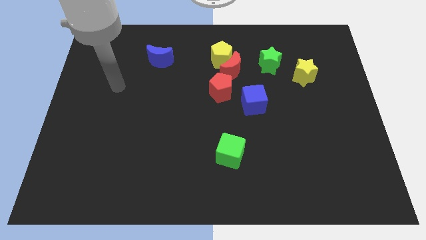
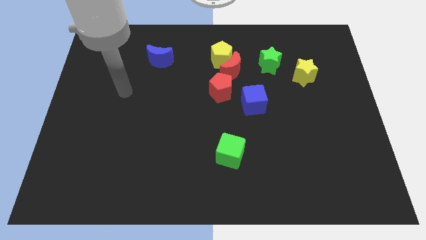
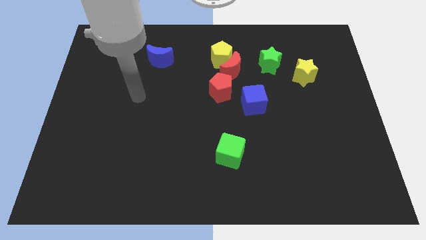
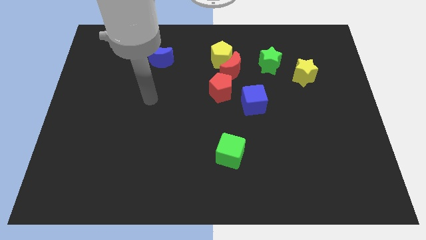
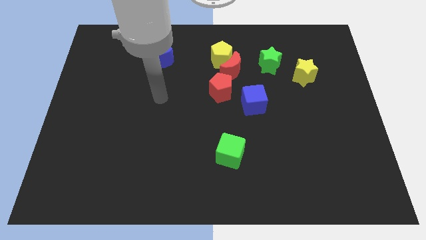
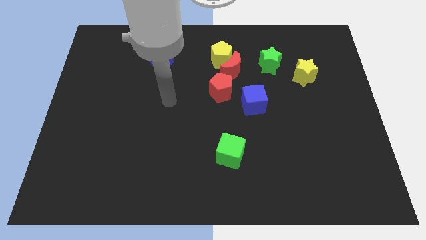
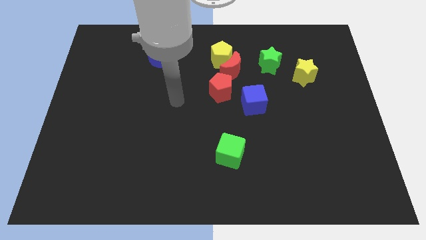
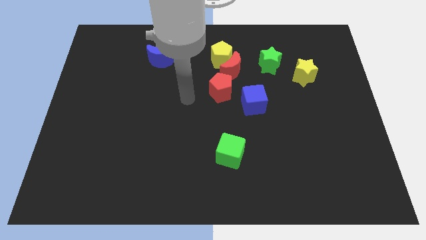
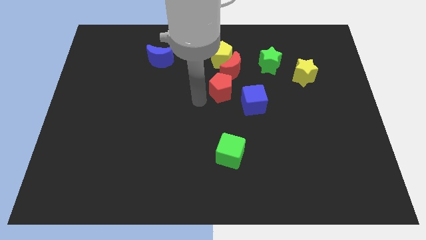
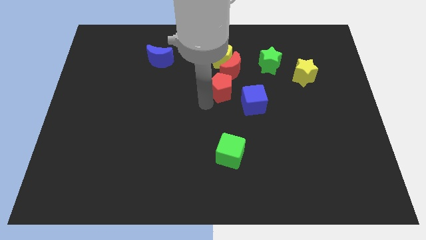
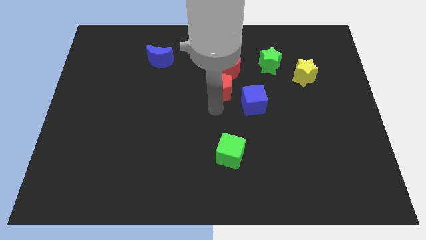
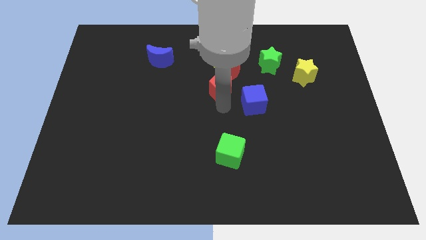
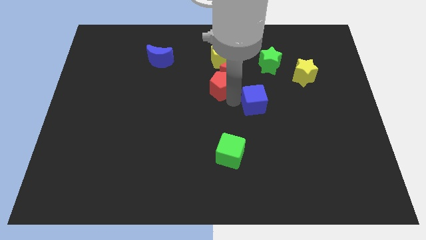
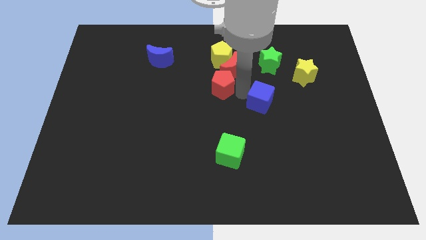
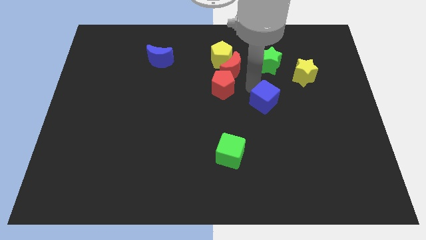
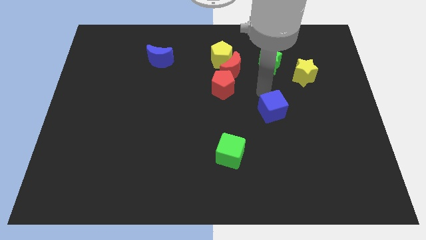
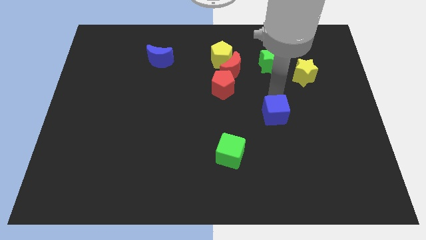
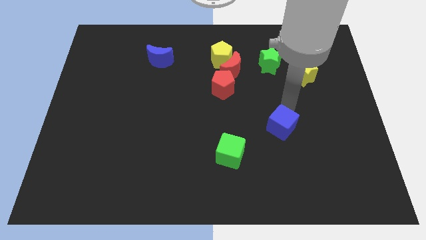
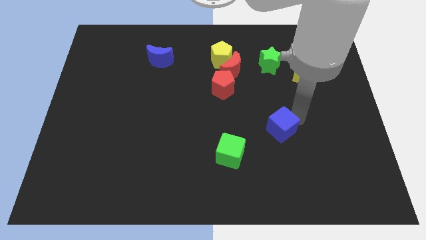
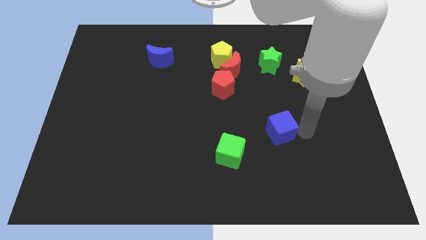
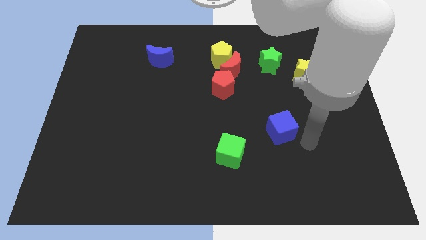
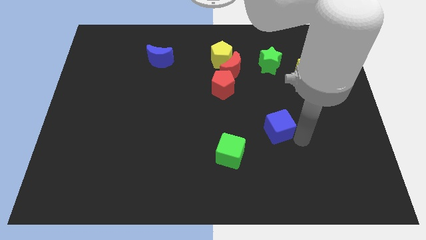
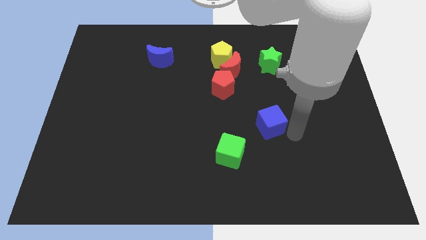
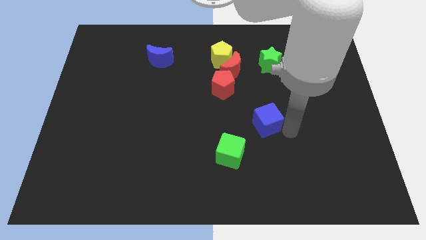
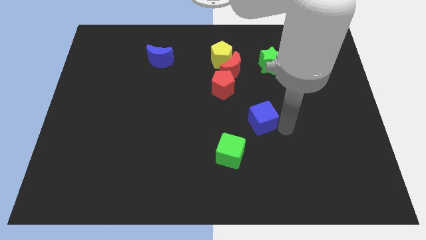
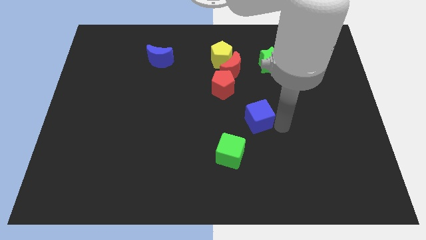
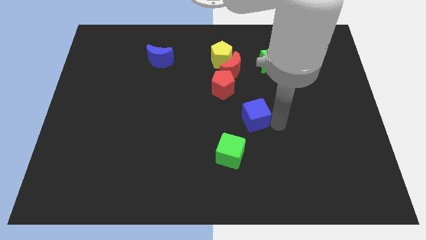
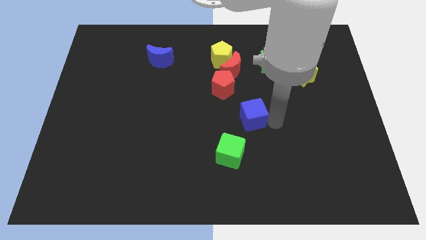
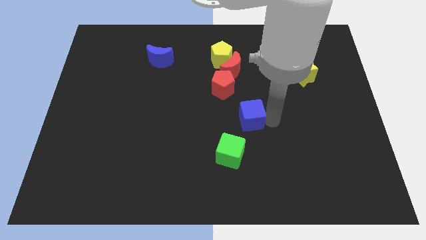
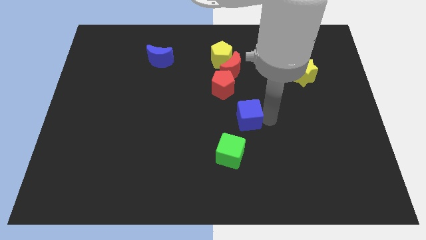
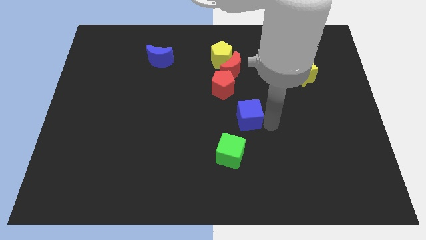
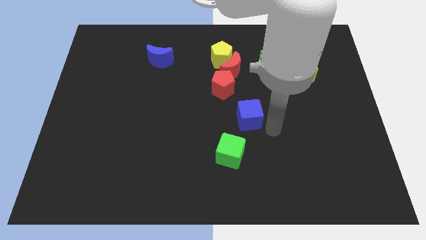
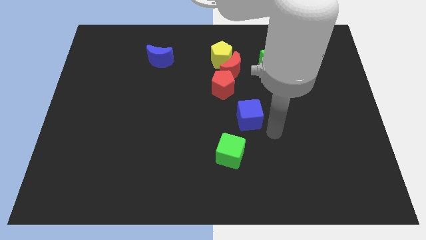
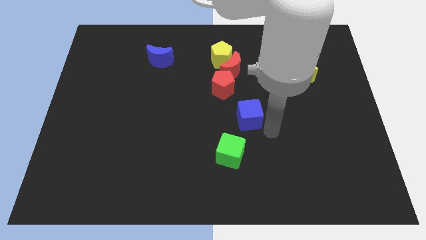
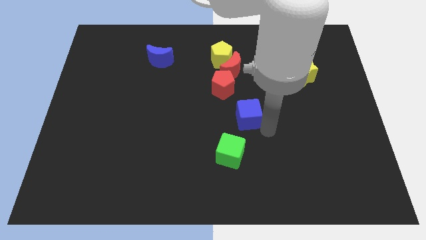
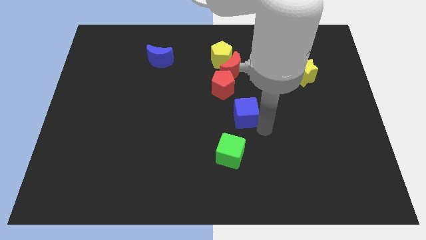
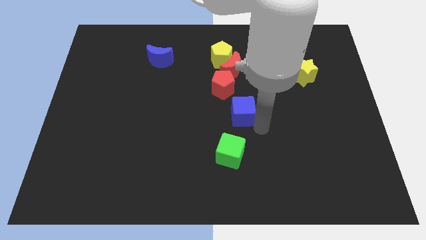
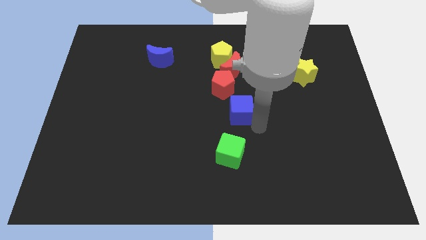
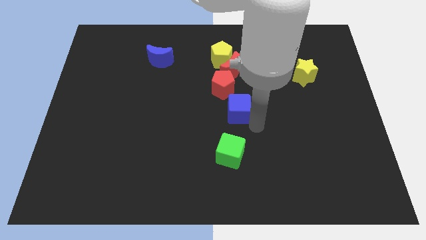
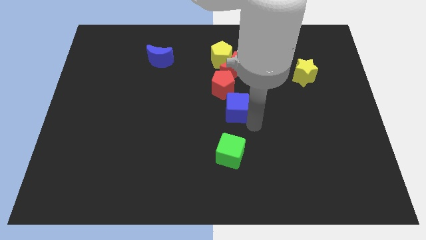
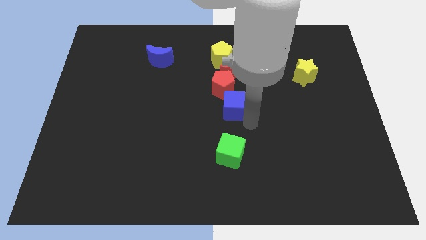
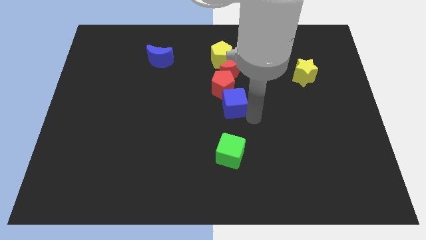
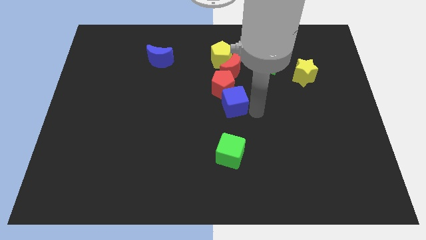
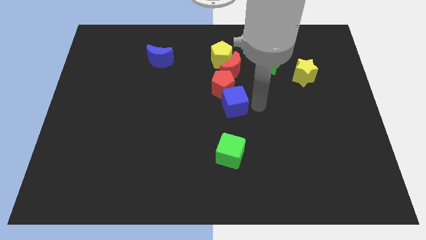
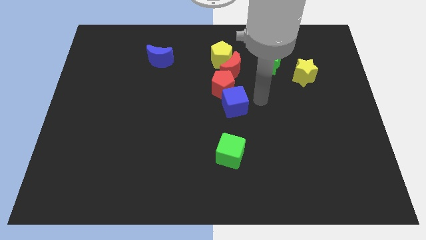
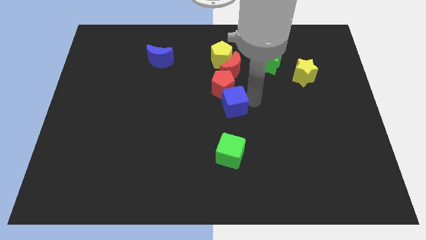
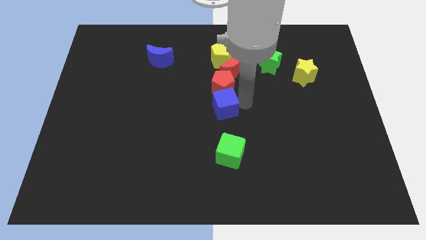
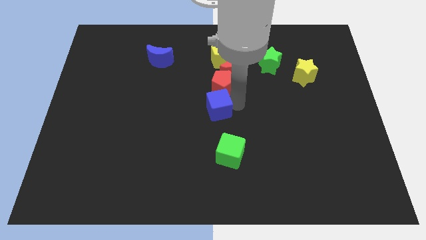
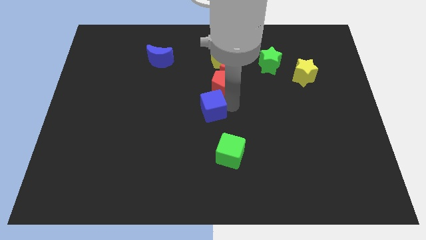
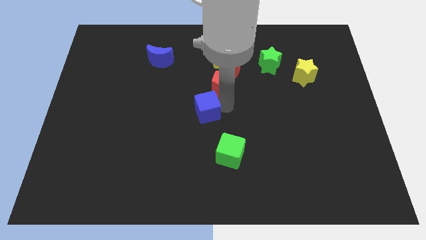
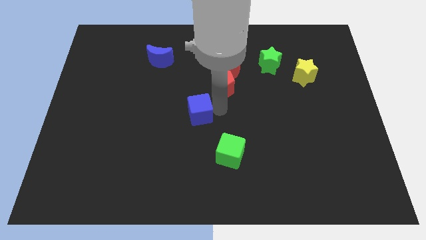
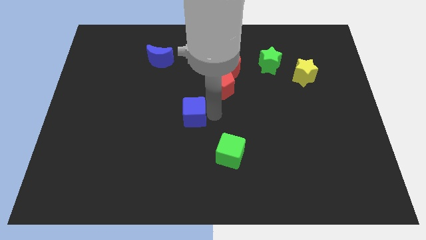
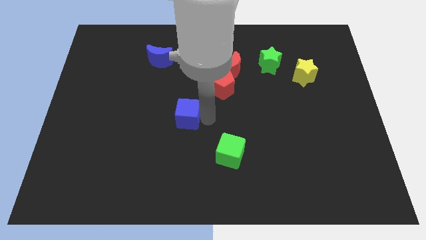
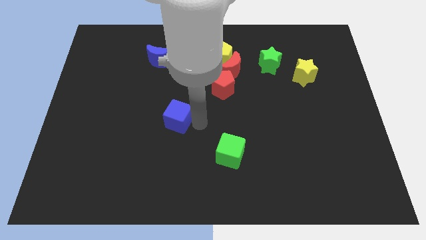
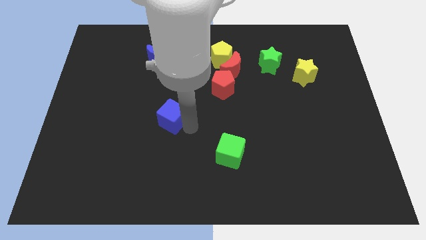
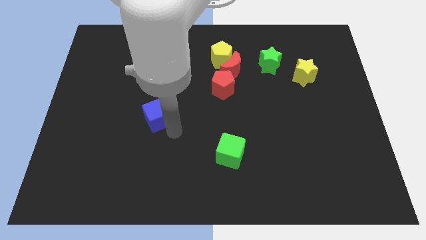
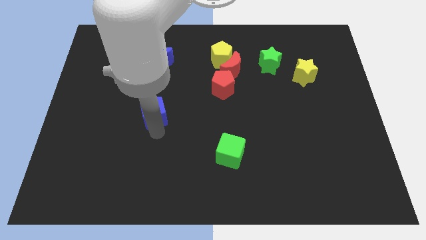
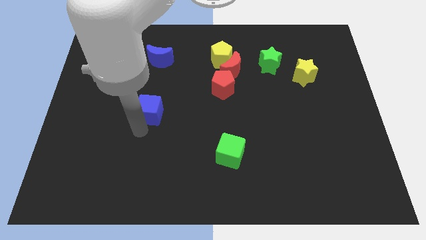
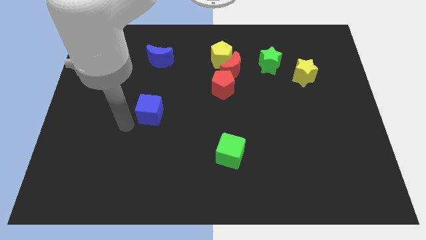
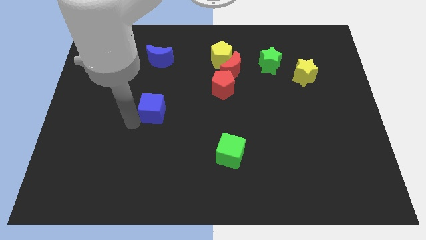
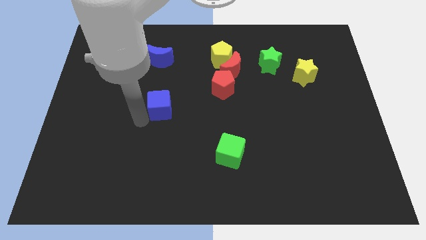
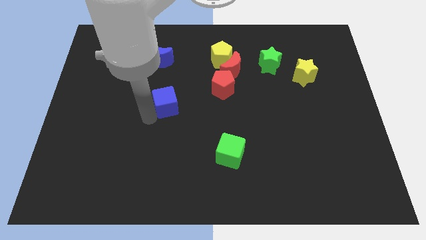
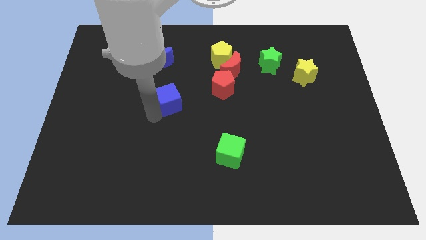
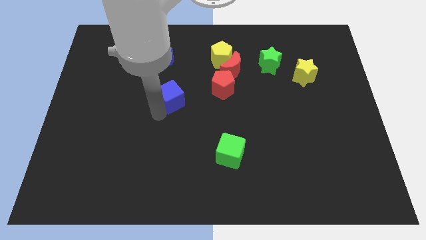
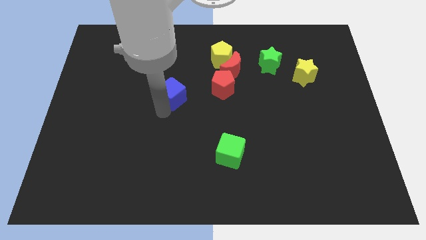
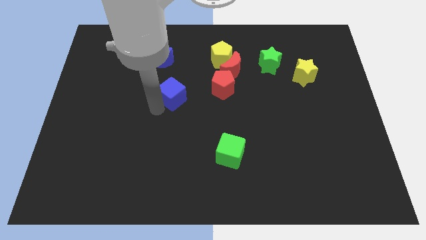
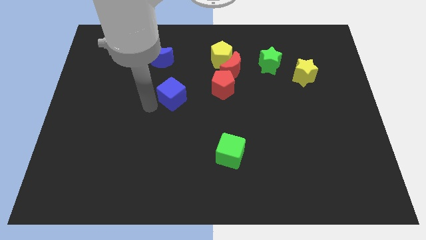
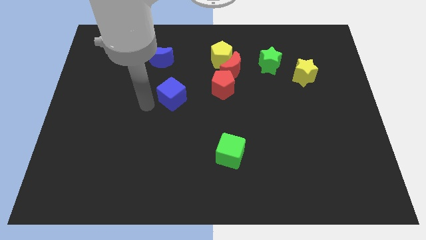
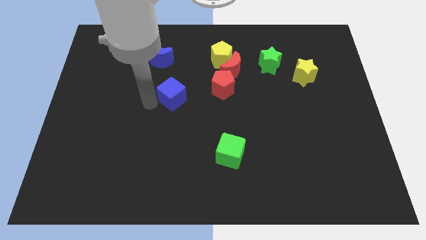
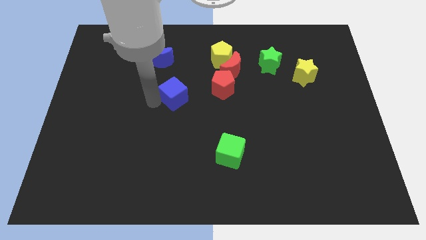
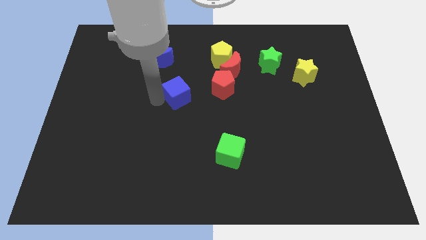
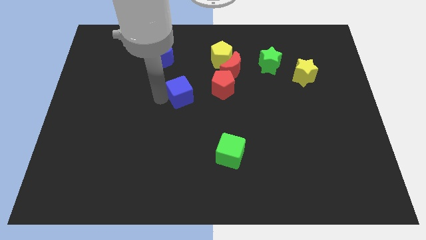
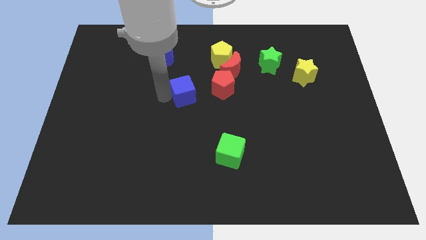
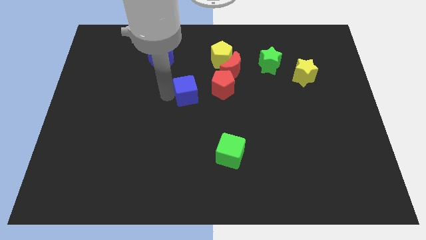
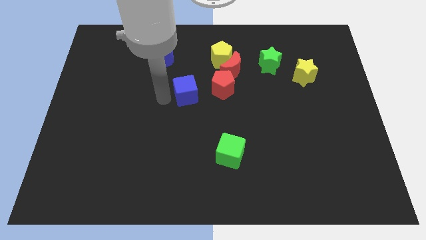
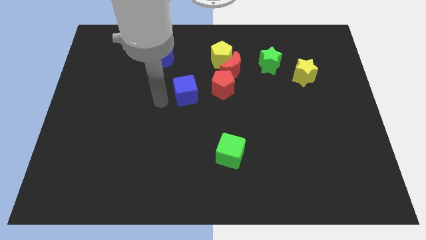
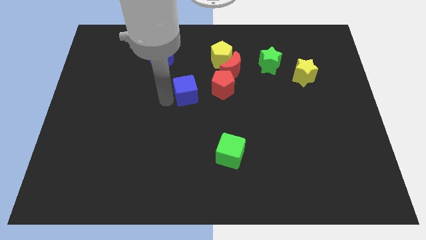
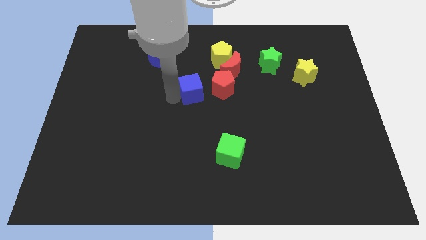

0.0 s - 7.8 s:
slide the blue cube to the bottom left side of the red moon

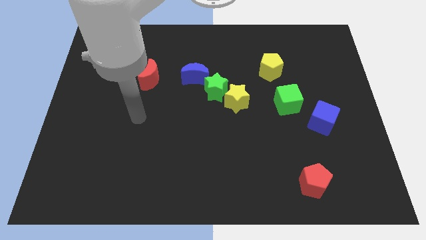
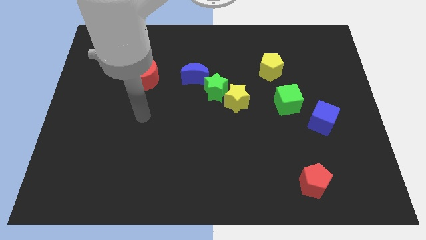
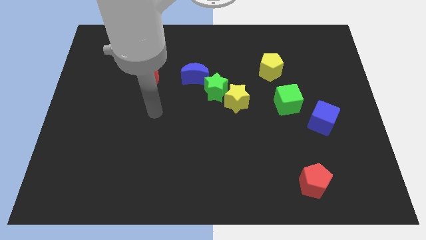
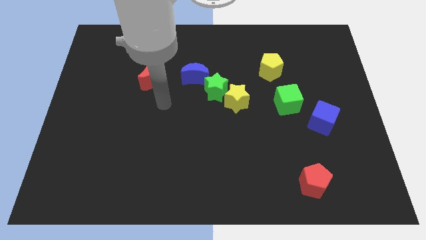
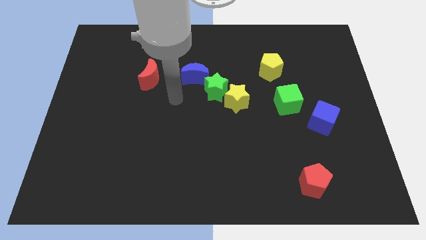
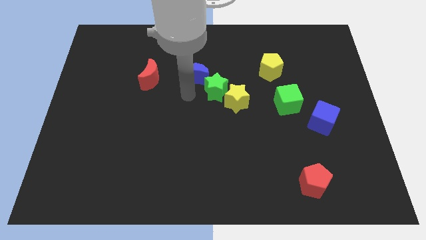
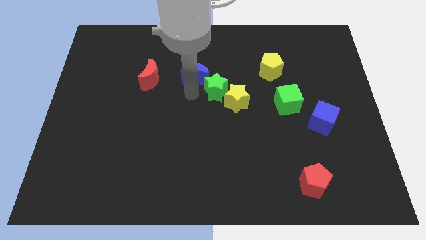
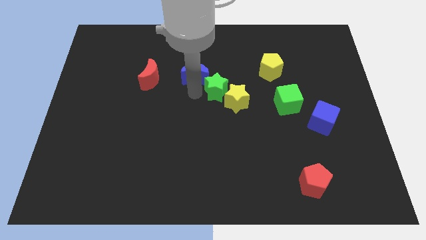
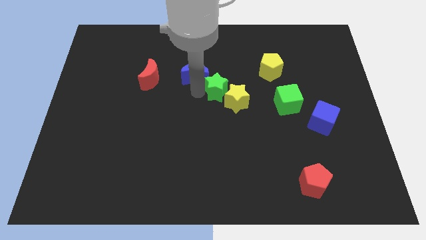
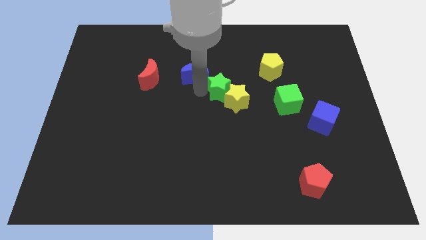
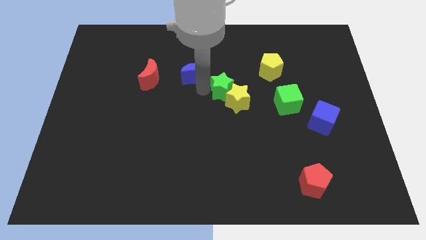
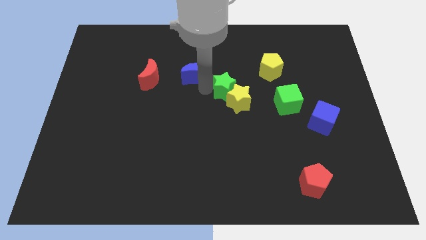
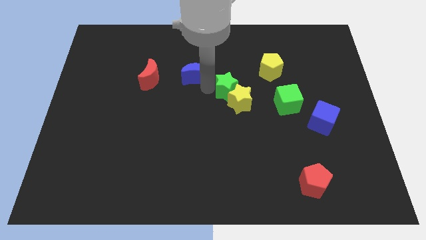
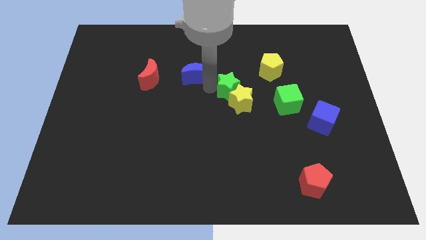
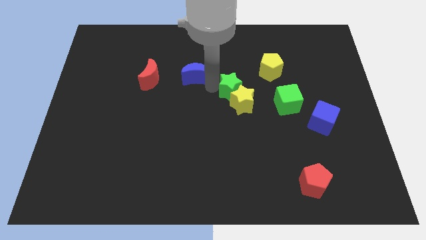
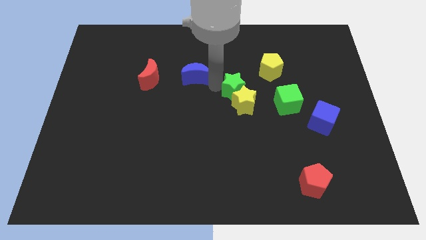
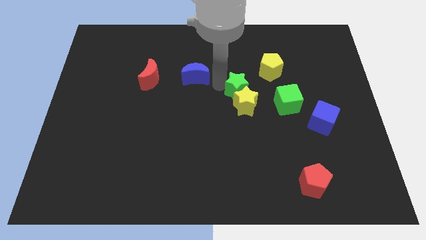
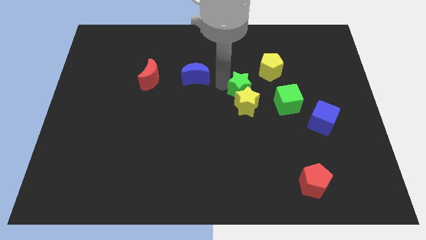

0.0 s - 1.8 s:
put the green star to the top right of the yellow star
